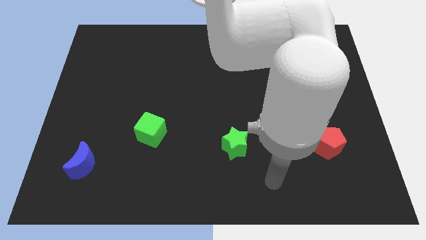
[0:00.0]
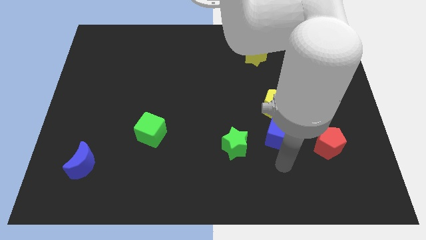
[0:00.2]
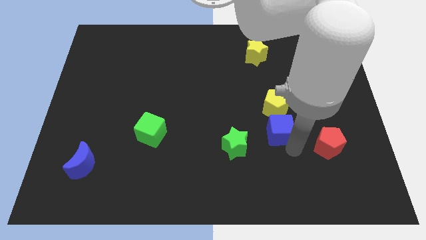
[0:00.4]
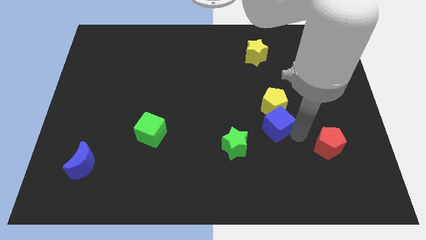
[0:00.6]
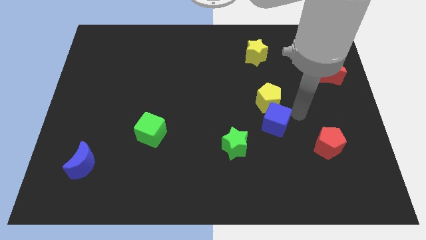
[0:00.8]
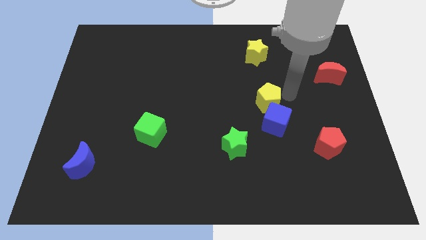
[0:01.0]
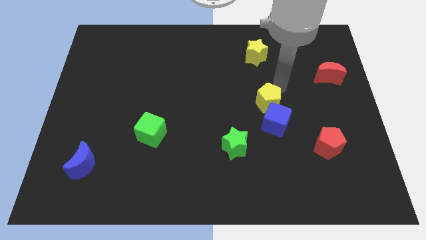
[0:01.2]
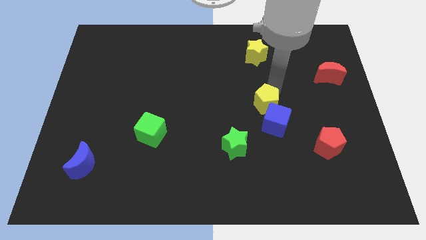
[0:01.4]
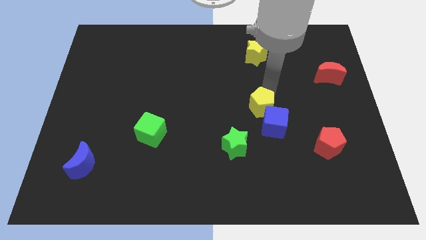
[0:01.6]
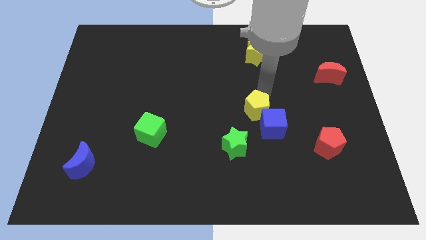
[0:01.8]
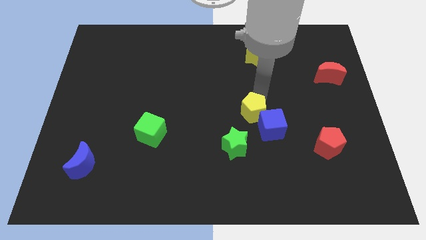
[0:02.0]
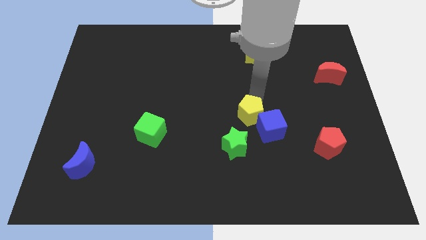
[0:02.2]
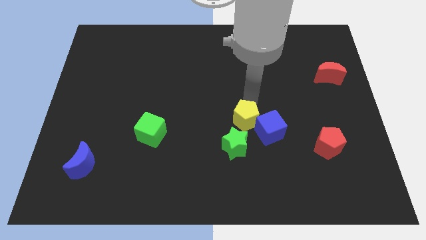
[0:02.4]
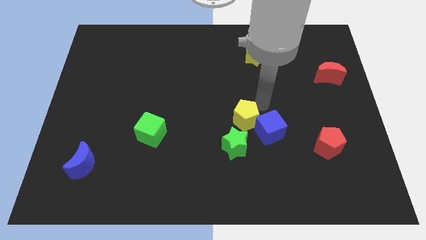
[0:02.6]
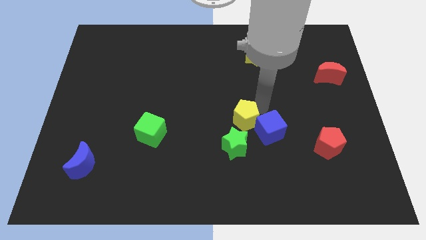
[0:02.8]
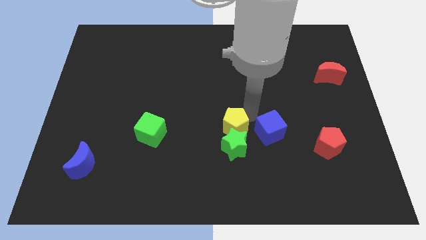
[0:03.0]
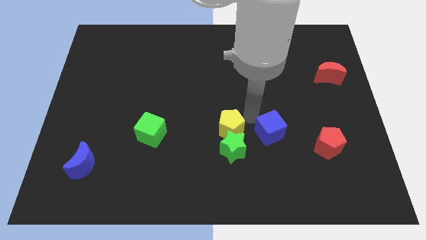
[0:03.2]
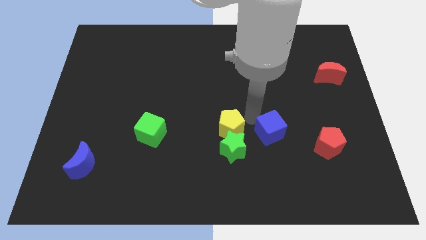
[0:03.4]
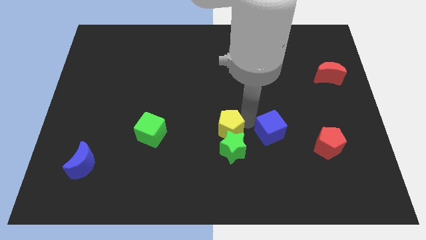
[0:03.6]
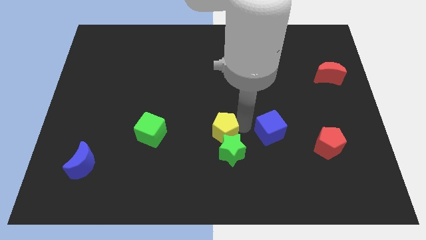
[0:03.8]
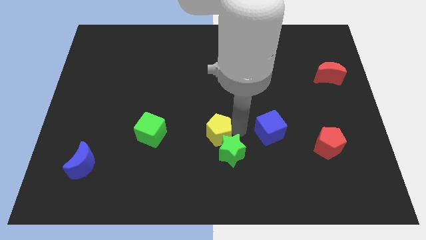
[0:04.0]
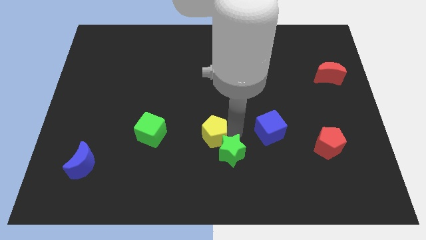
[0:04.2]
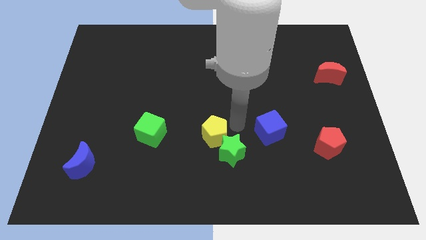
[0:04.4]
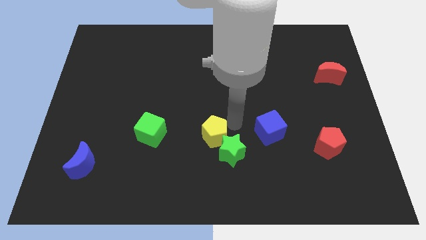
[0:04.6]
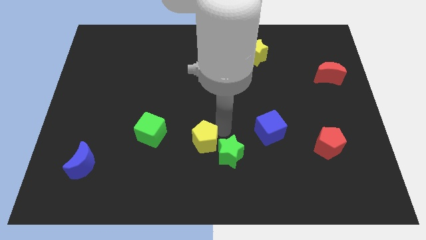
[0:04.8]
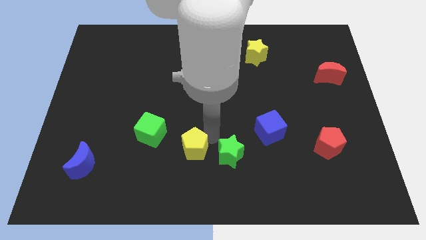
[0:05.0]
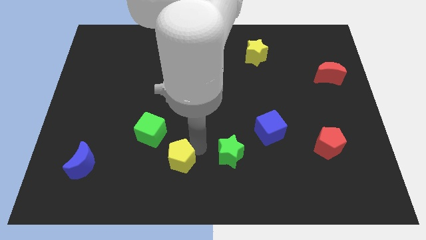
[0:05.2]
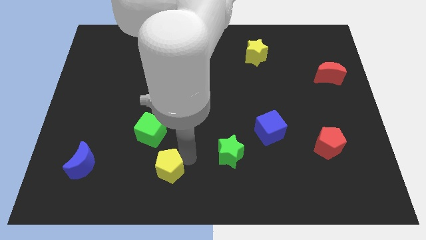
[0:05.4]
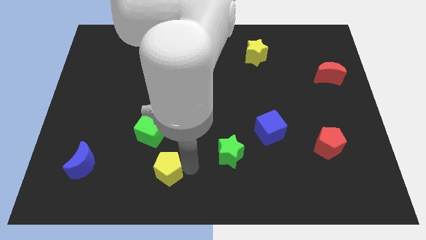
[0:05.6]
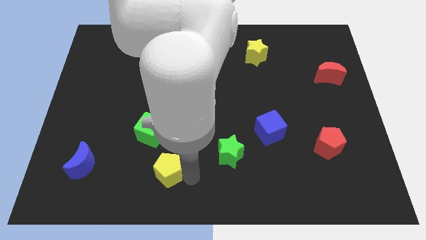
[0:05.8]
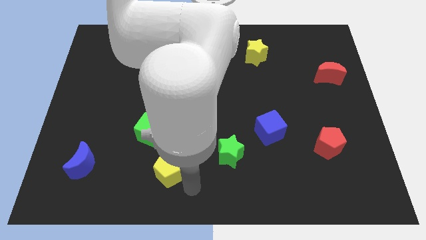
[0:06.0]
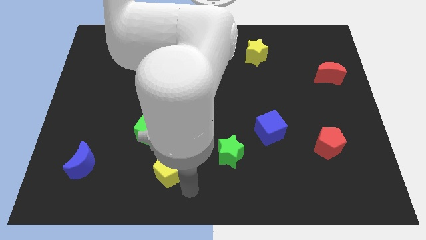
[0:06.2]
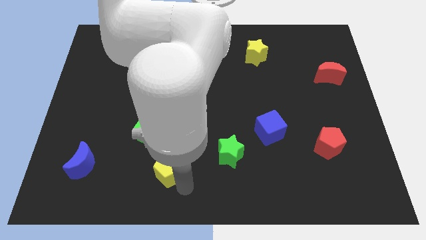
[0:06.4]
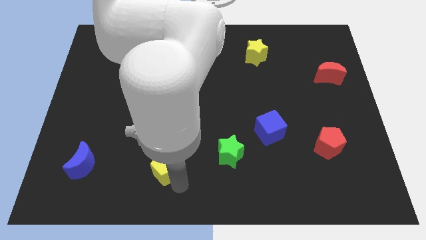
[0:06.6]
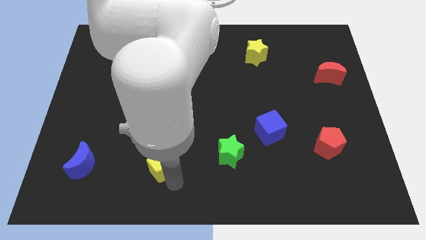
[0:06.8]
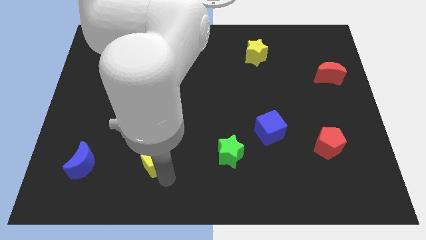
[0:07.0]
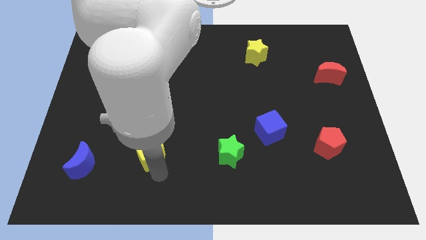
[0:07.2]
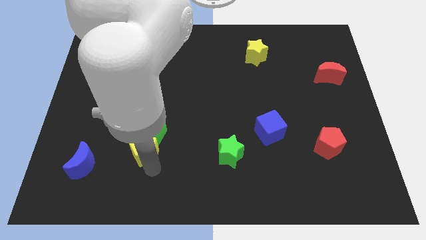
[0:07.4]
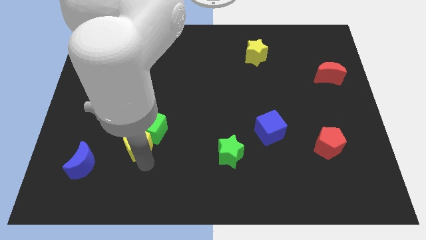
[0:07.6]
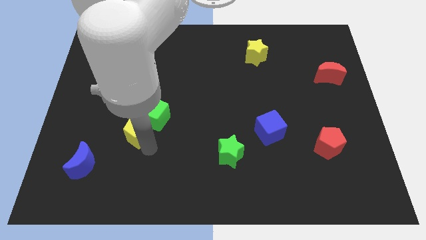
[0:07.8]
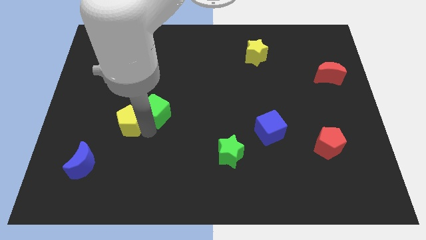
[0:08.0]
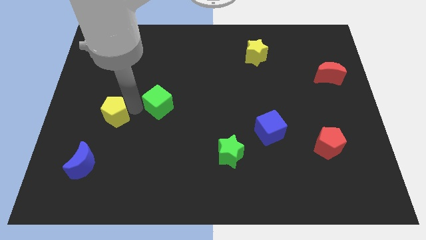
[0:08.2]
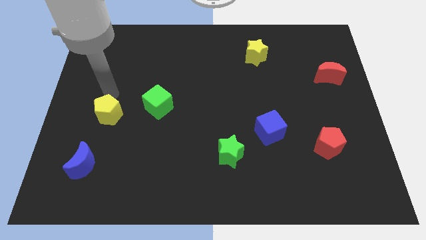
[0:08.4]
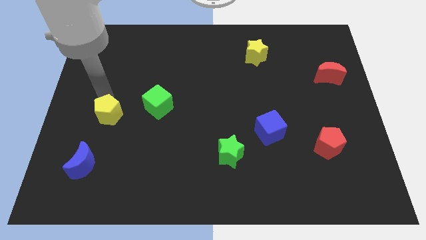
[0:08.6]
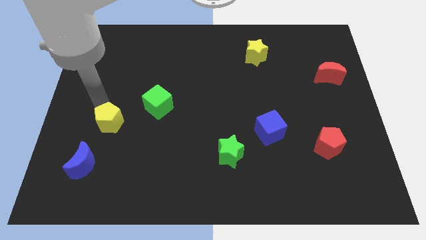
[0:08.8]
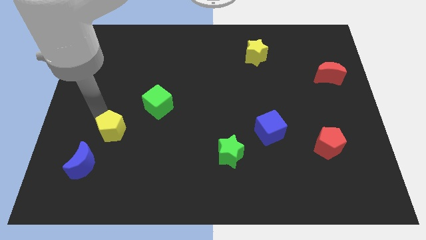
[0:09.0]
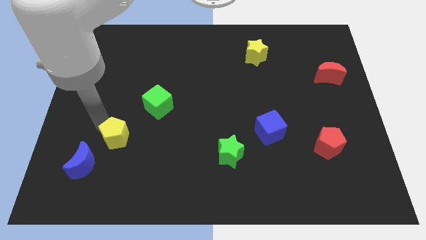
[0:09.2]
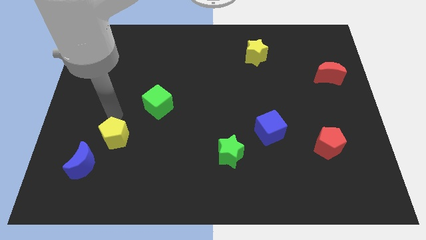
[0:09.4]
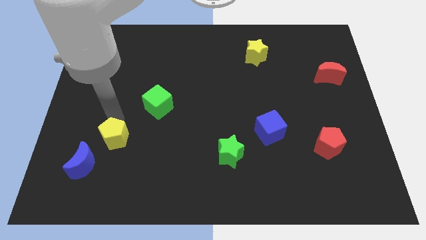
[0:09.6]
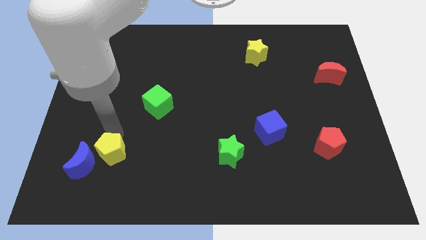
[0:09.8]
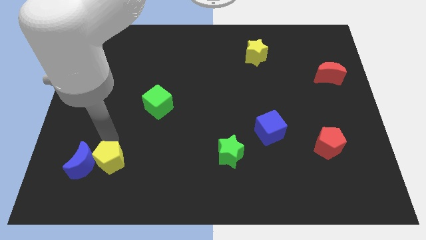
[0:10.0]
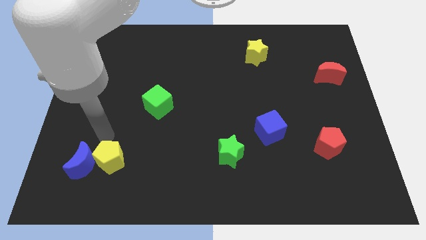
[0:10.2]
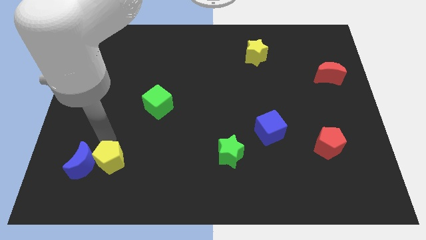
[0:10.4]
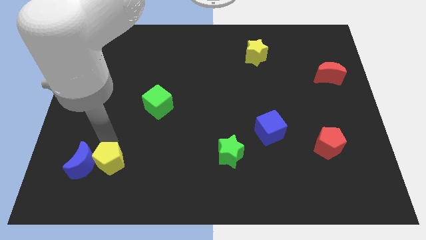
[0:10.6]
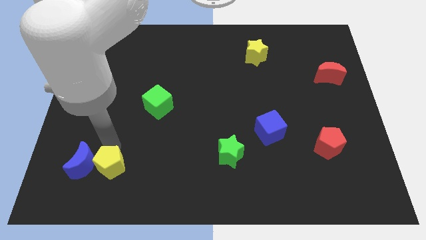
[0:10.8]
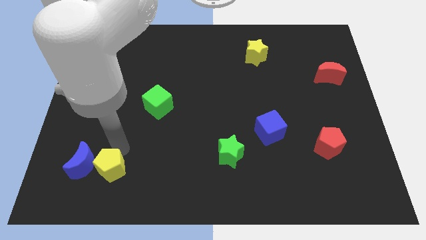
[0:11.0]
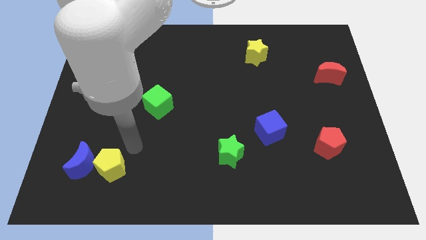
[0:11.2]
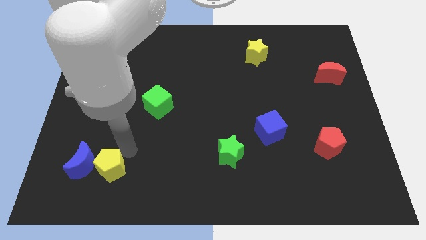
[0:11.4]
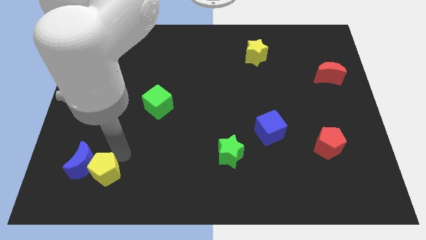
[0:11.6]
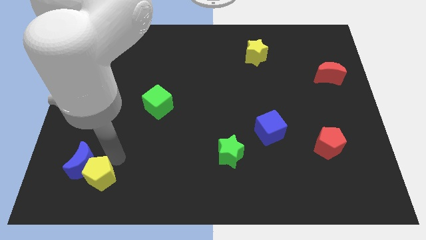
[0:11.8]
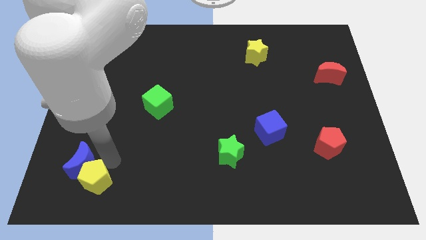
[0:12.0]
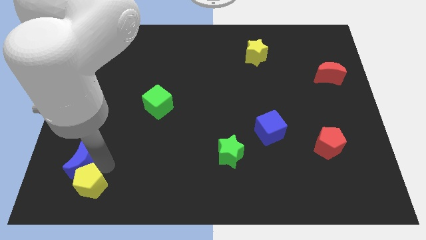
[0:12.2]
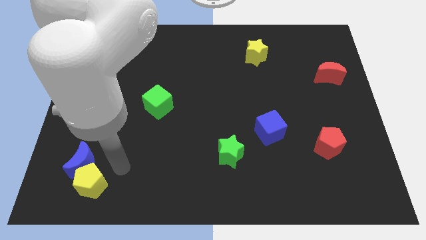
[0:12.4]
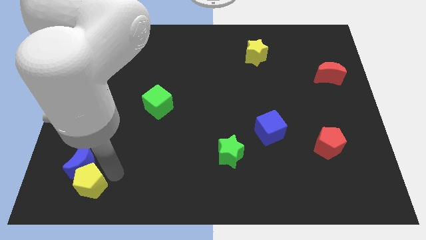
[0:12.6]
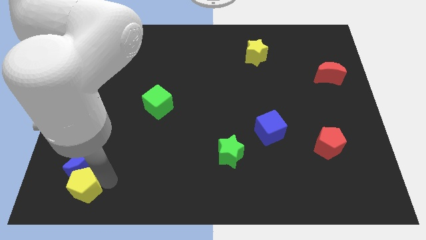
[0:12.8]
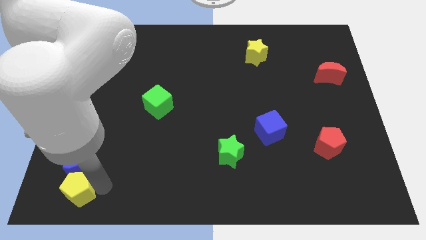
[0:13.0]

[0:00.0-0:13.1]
put the yellow pentagon to the lower left corner

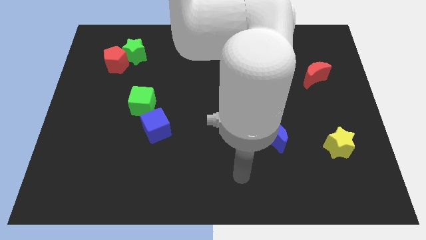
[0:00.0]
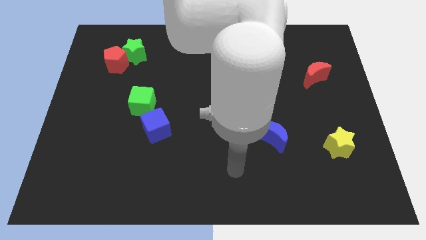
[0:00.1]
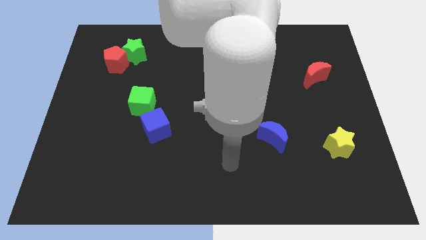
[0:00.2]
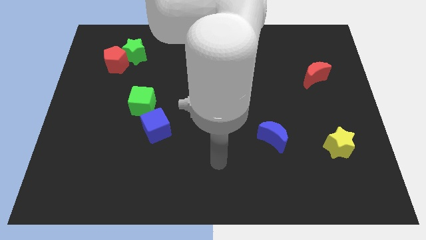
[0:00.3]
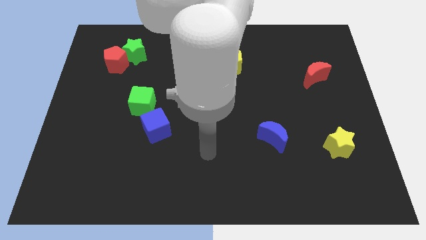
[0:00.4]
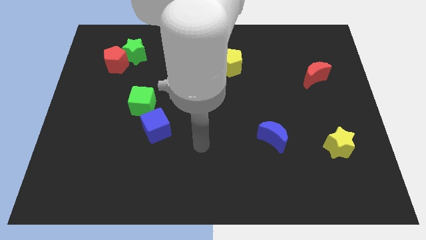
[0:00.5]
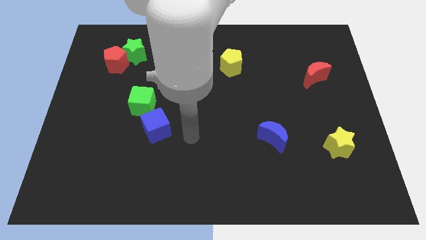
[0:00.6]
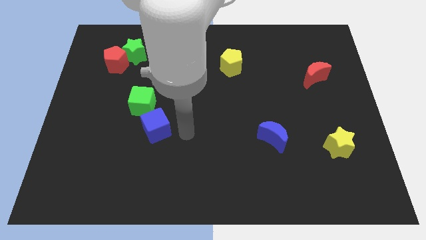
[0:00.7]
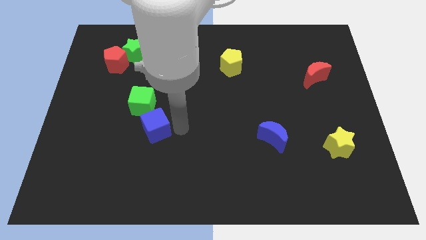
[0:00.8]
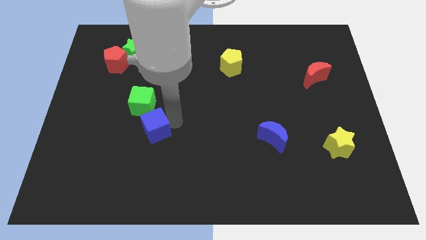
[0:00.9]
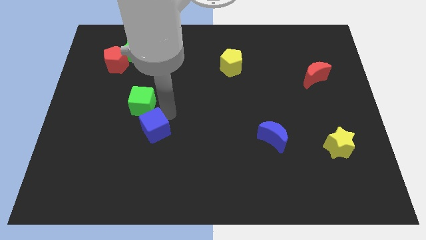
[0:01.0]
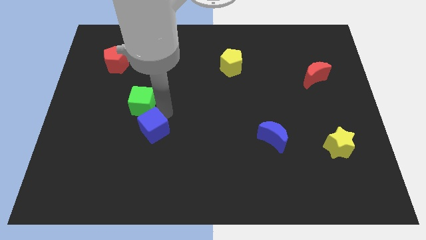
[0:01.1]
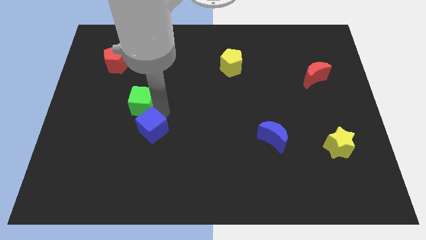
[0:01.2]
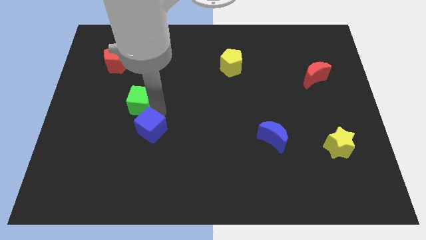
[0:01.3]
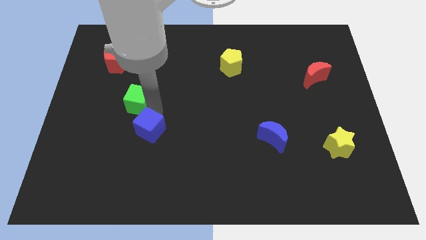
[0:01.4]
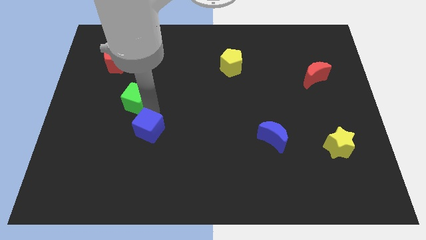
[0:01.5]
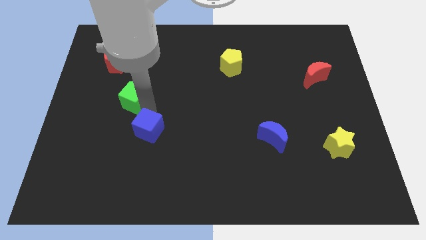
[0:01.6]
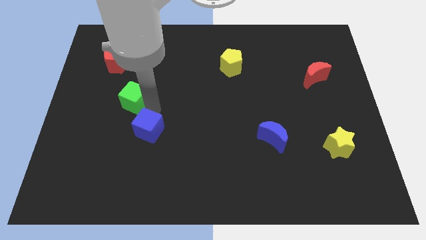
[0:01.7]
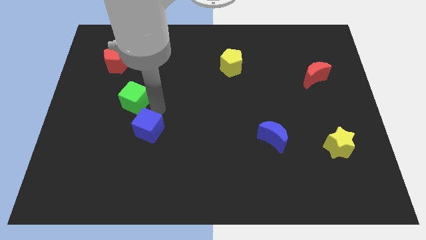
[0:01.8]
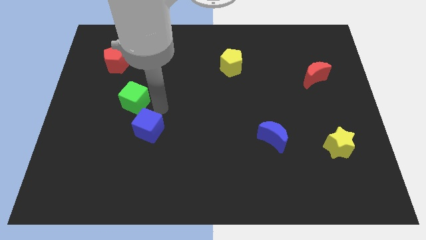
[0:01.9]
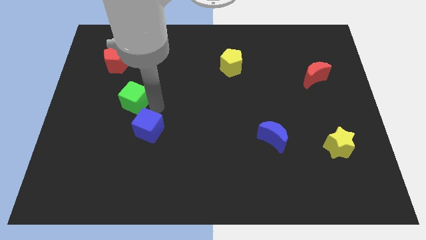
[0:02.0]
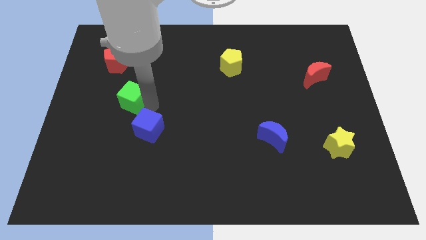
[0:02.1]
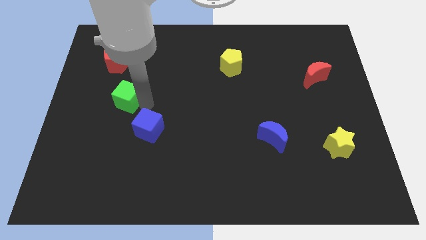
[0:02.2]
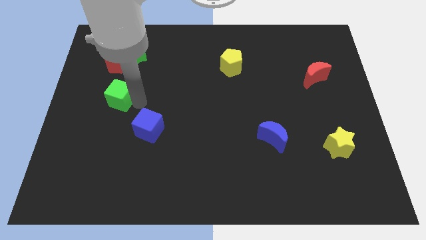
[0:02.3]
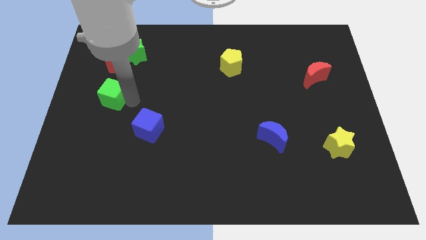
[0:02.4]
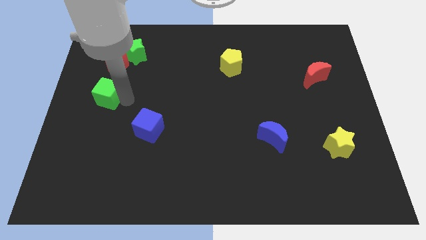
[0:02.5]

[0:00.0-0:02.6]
put the green cube to the left side of the board
